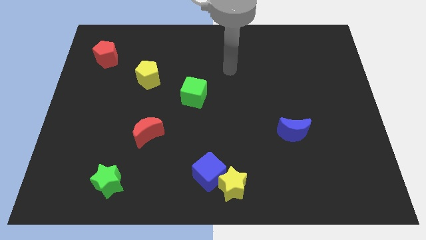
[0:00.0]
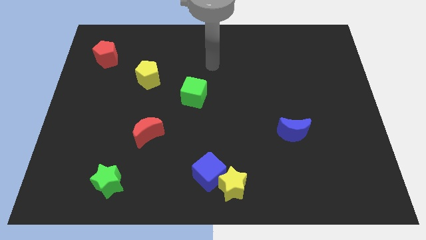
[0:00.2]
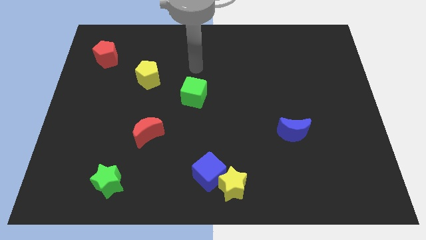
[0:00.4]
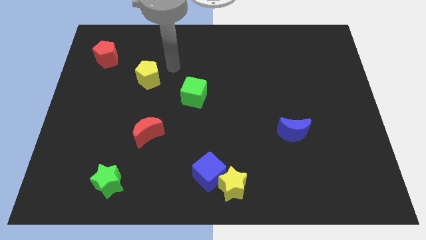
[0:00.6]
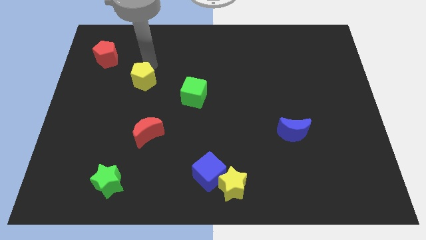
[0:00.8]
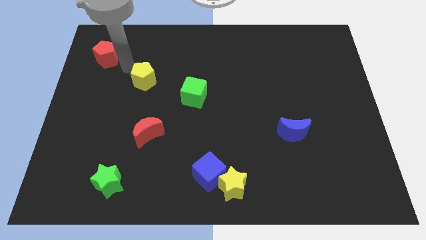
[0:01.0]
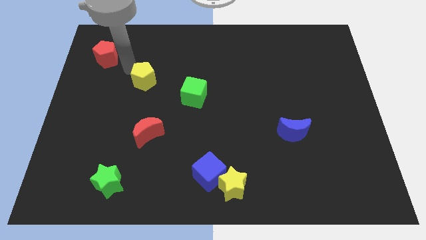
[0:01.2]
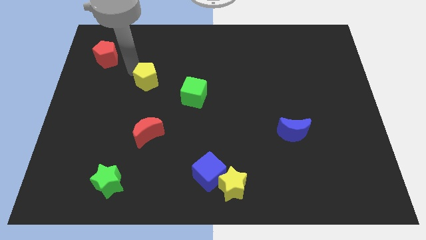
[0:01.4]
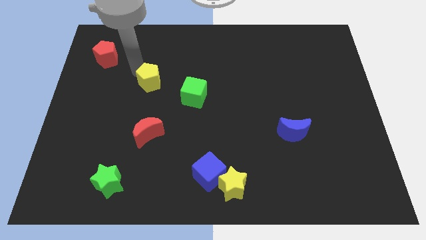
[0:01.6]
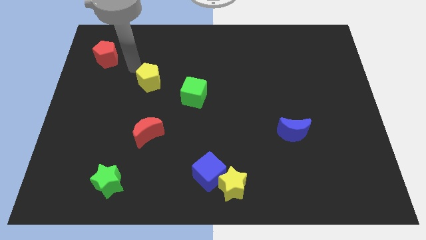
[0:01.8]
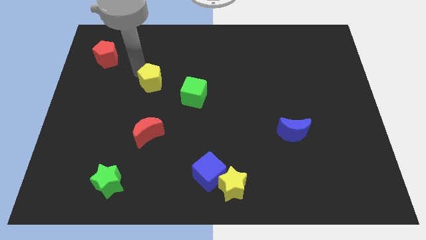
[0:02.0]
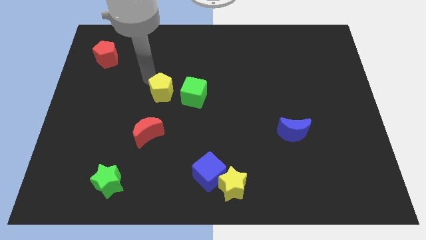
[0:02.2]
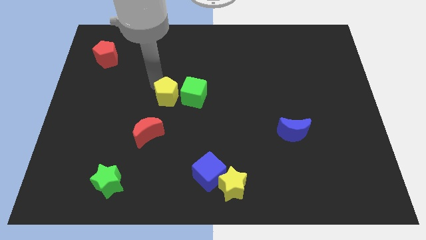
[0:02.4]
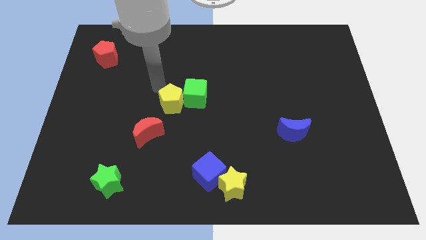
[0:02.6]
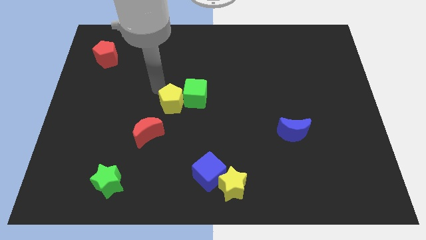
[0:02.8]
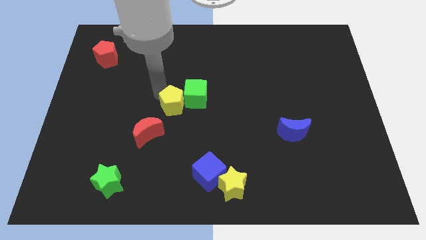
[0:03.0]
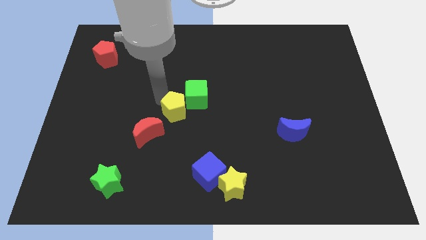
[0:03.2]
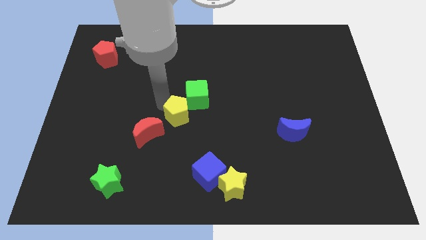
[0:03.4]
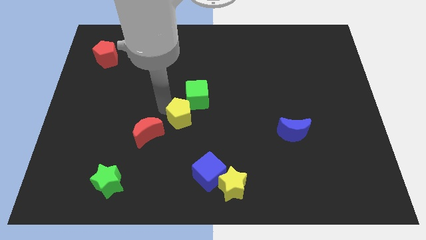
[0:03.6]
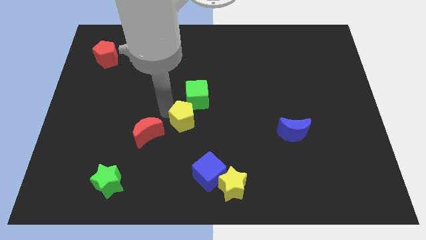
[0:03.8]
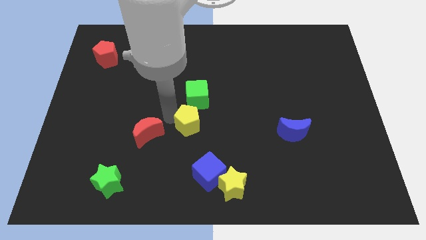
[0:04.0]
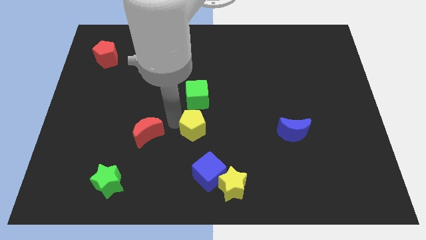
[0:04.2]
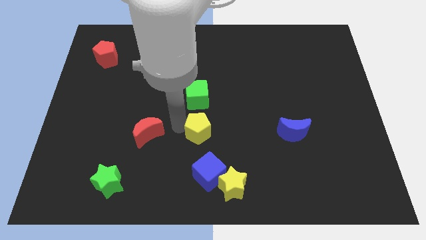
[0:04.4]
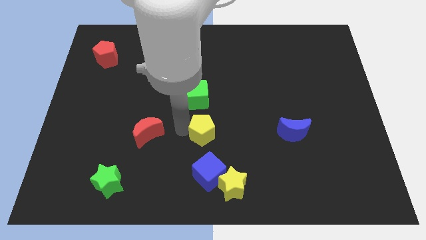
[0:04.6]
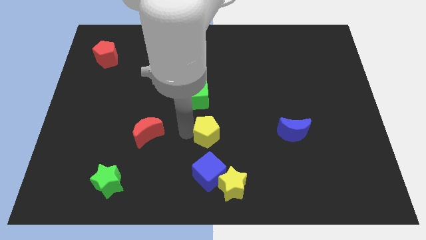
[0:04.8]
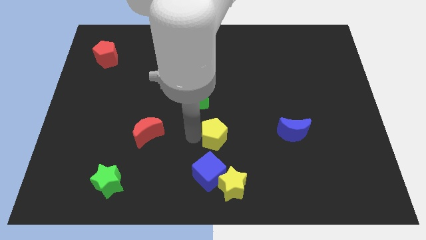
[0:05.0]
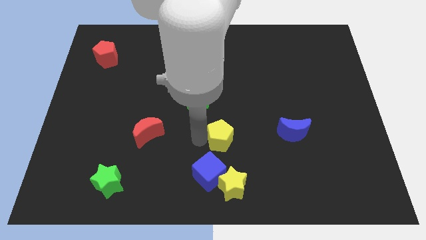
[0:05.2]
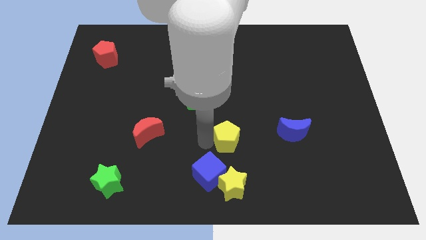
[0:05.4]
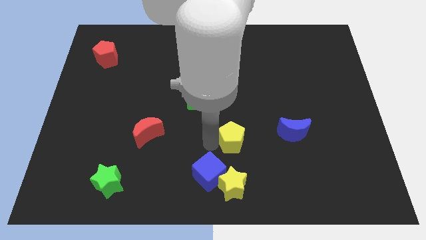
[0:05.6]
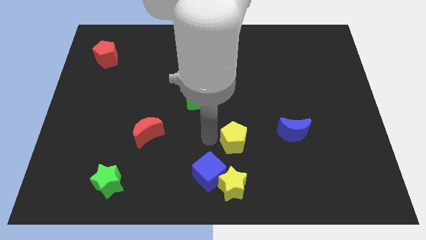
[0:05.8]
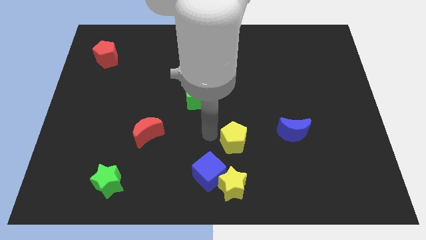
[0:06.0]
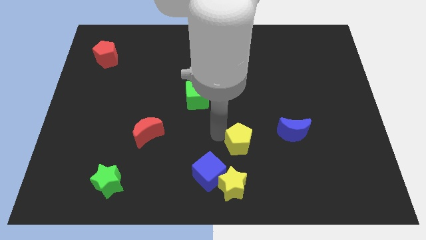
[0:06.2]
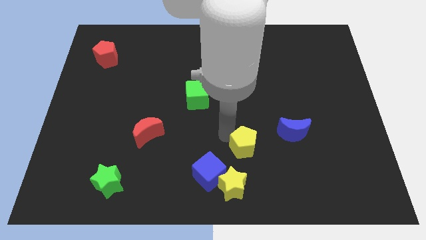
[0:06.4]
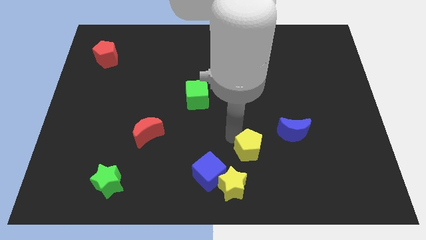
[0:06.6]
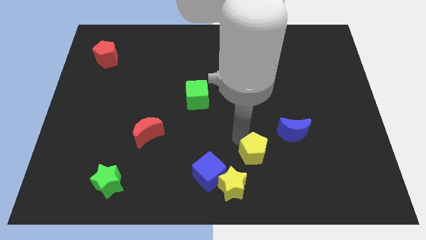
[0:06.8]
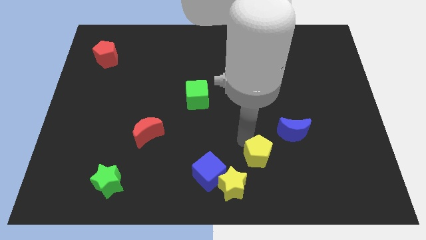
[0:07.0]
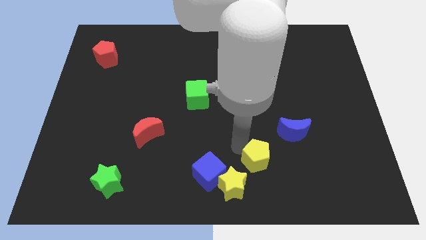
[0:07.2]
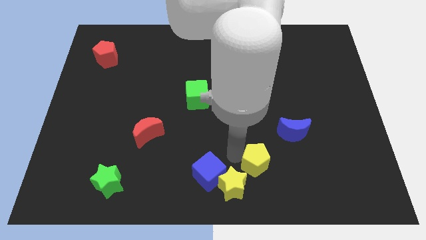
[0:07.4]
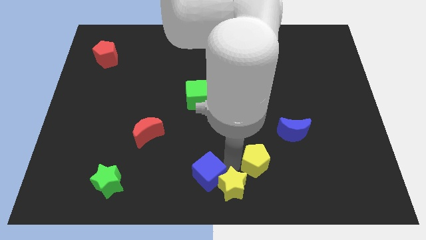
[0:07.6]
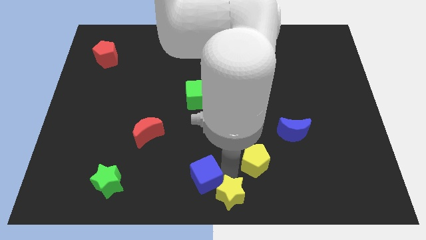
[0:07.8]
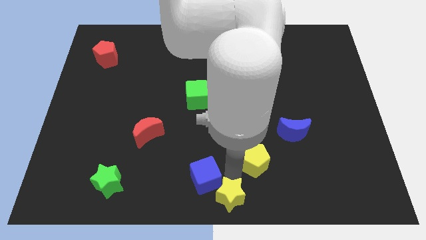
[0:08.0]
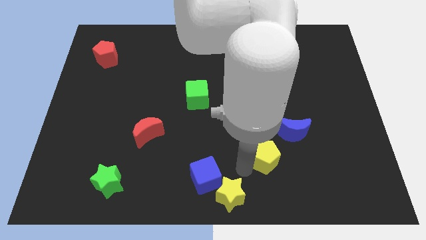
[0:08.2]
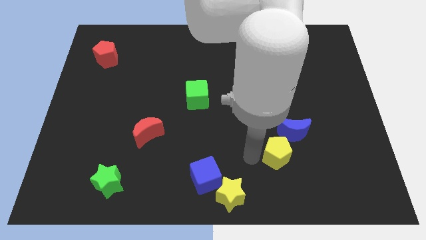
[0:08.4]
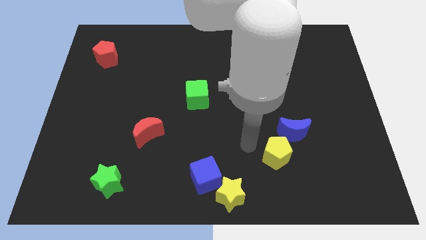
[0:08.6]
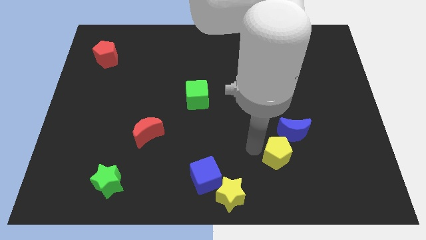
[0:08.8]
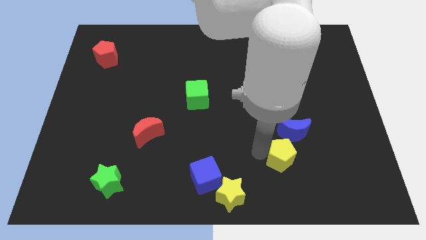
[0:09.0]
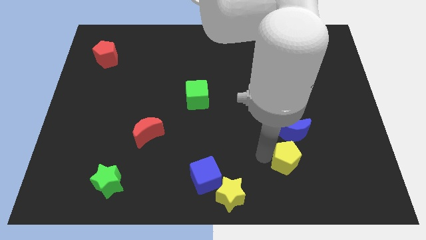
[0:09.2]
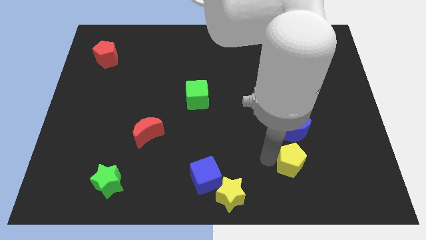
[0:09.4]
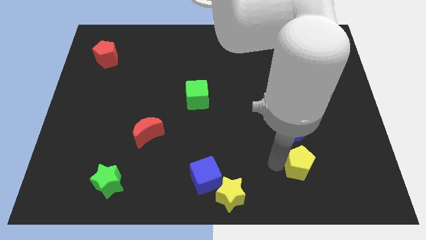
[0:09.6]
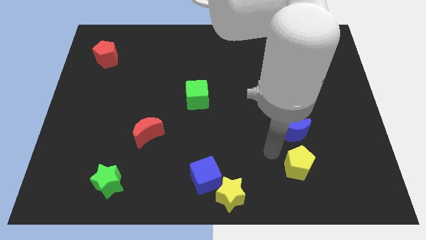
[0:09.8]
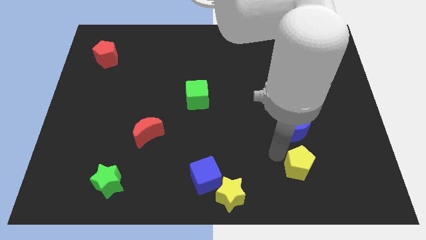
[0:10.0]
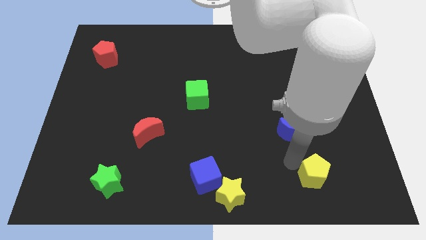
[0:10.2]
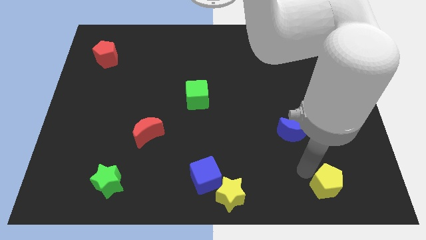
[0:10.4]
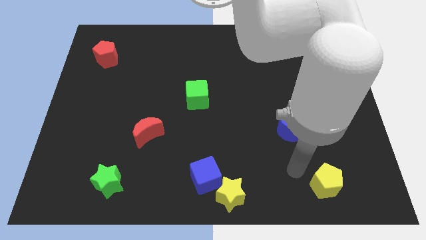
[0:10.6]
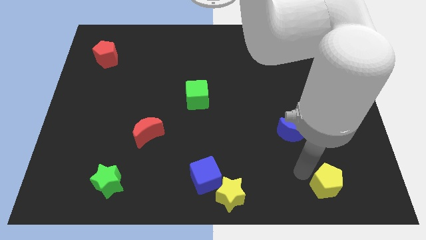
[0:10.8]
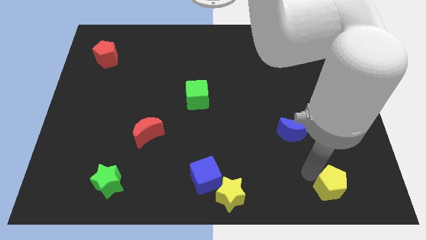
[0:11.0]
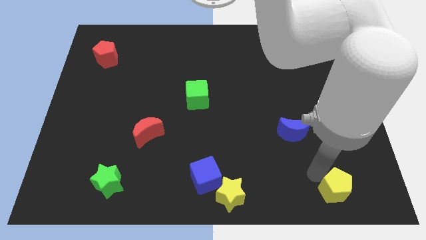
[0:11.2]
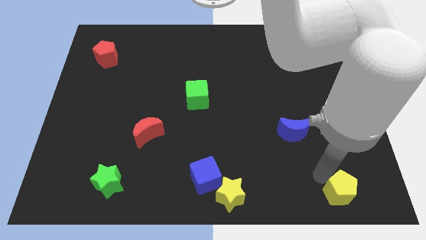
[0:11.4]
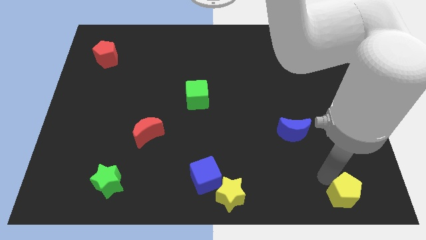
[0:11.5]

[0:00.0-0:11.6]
move the yellow pentagon to the lower right corner
